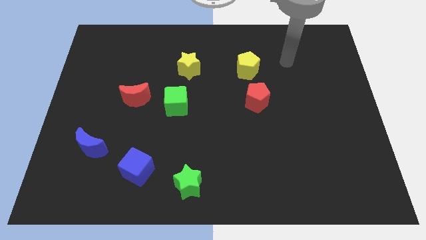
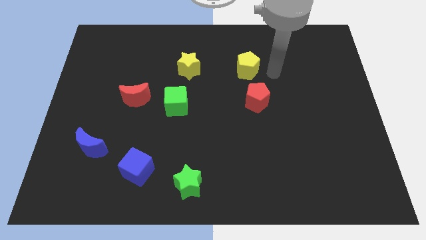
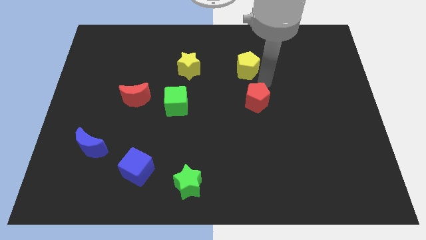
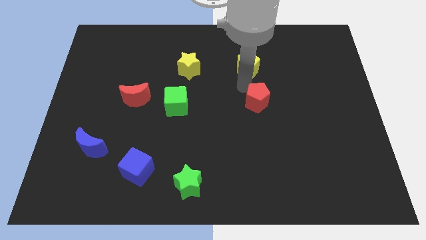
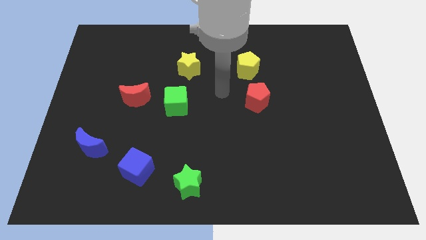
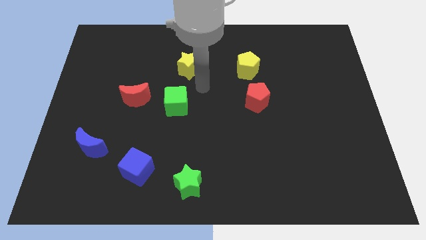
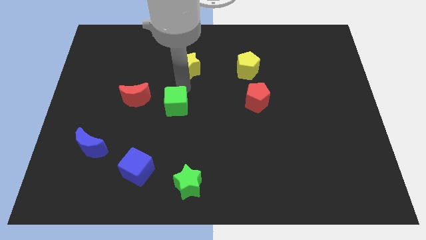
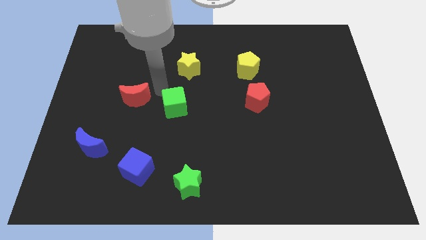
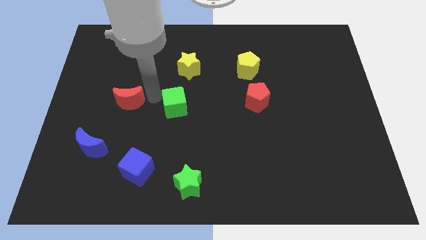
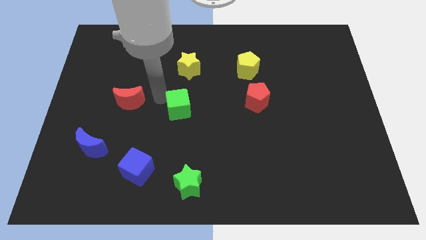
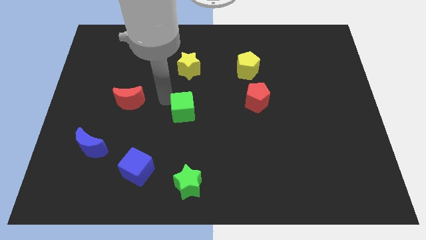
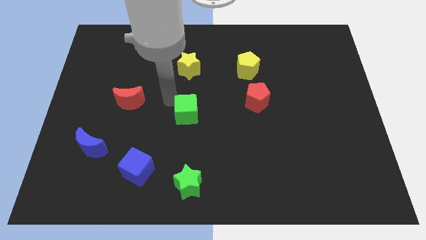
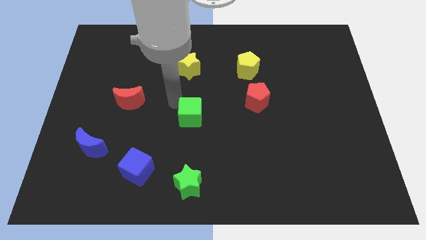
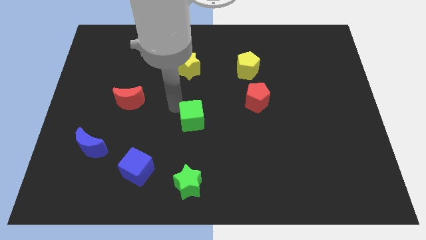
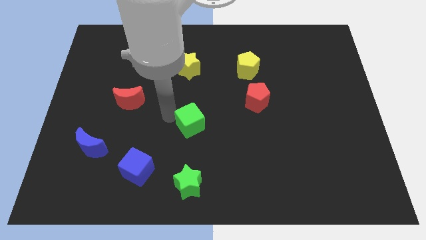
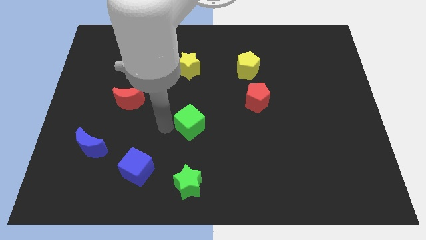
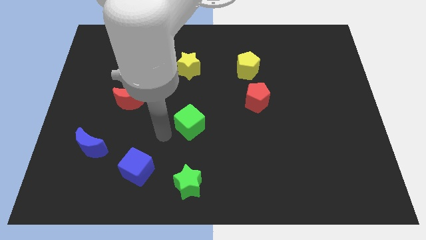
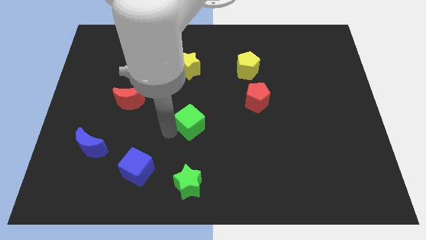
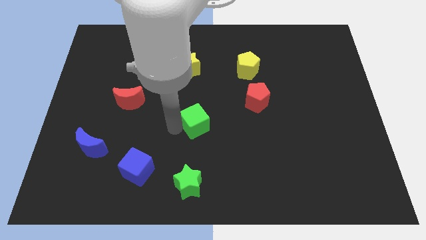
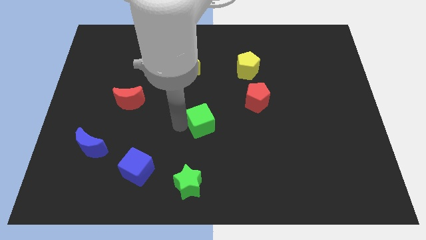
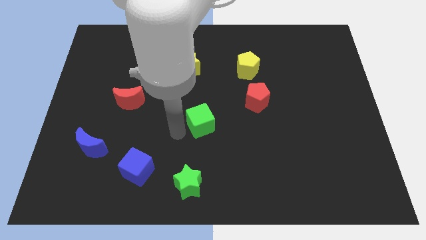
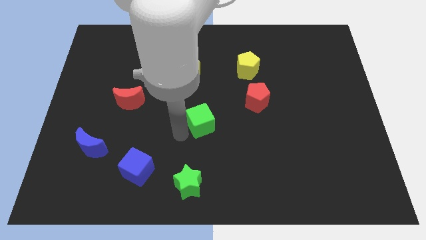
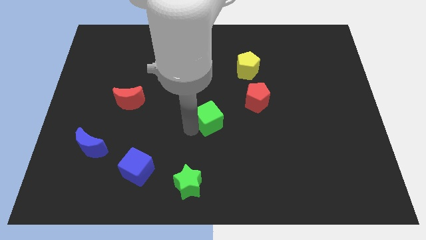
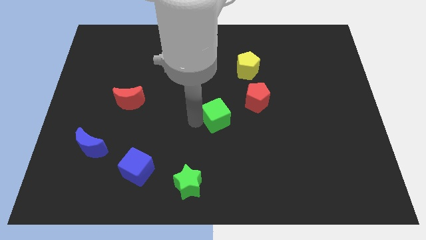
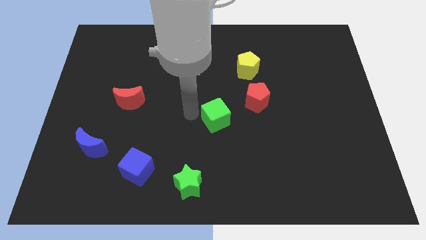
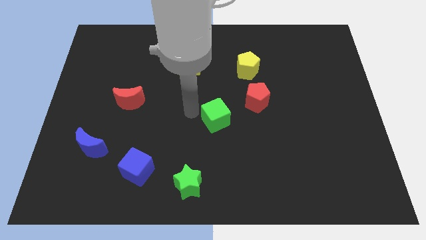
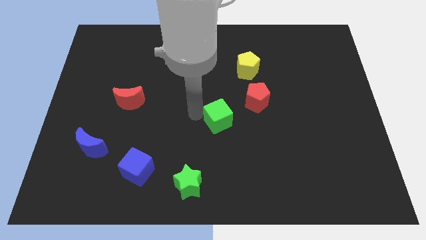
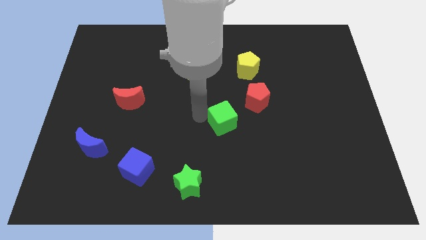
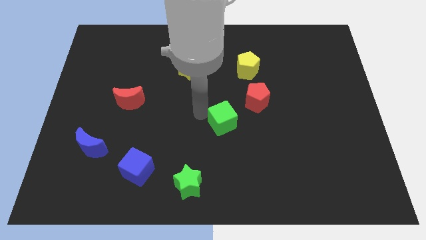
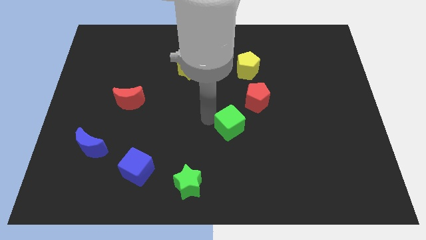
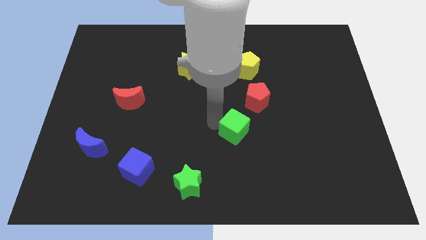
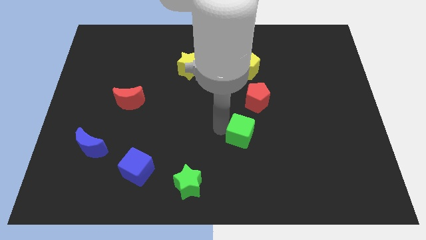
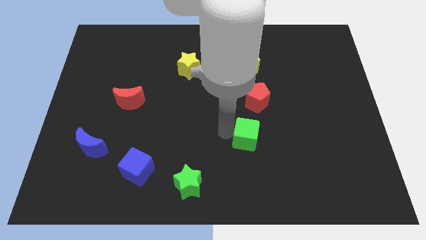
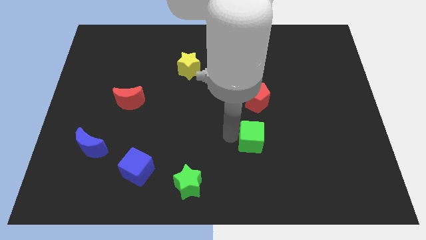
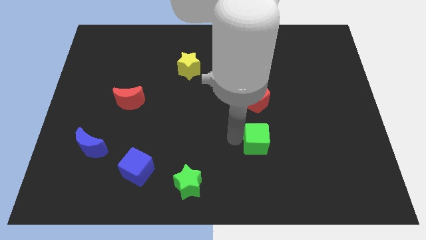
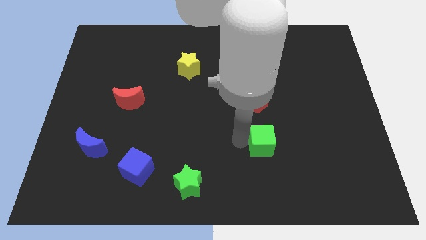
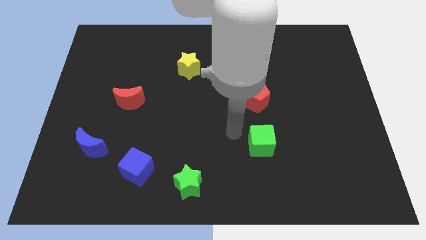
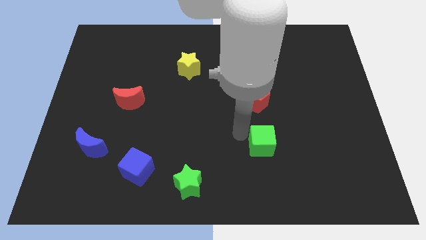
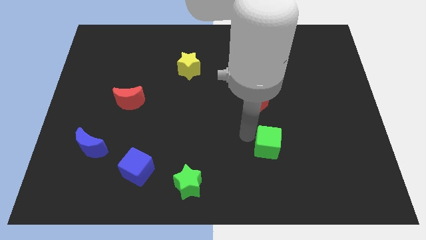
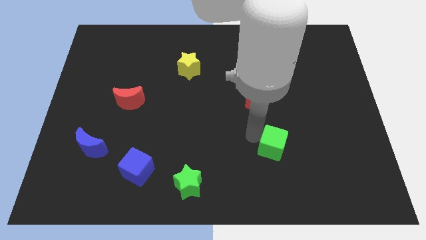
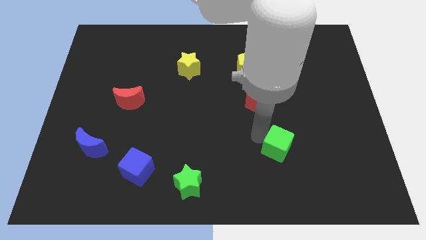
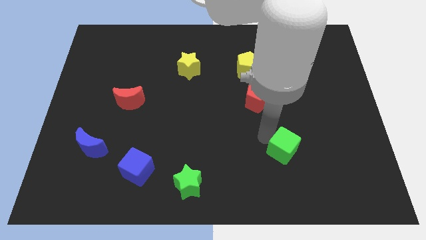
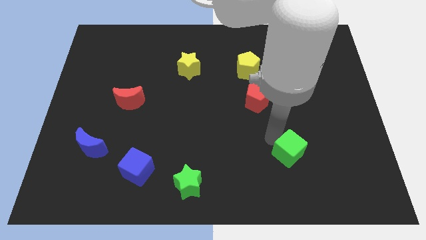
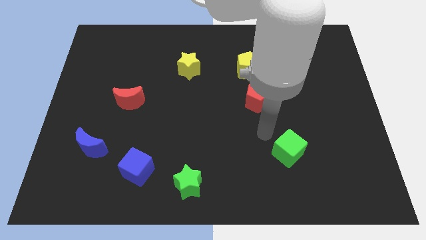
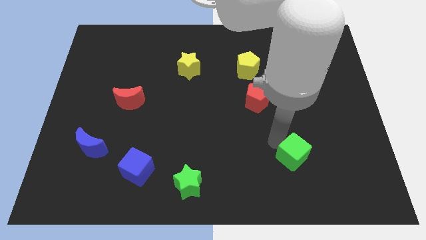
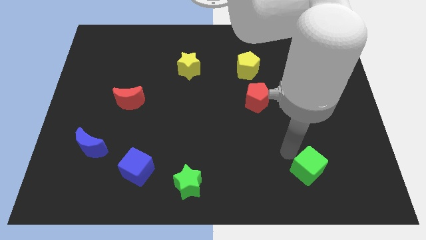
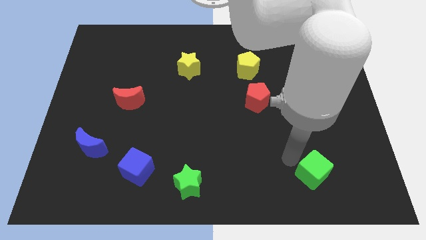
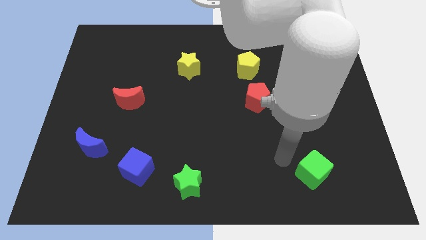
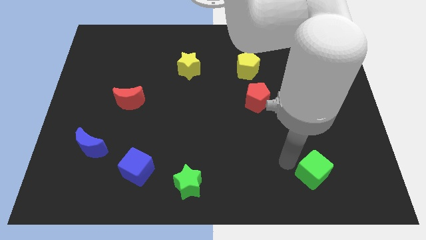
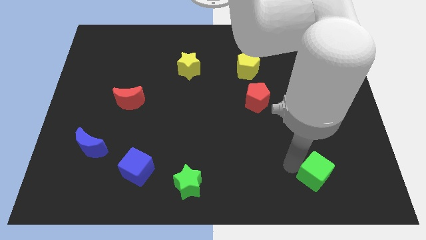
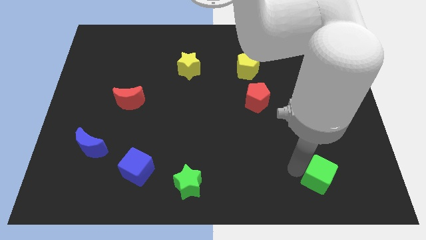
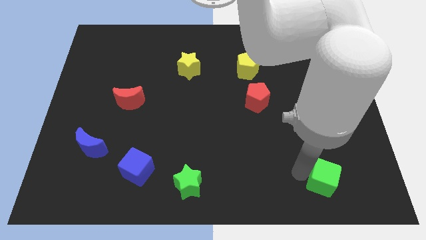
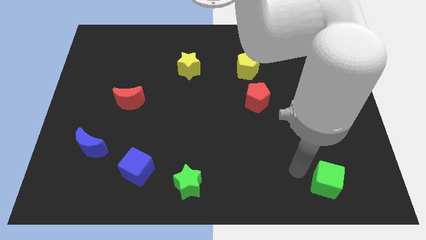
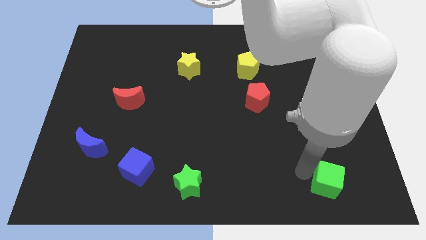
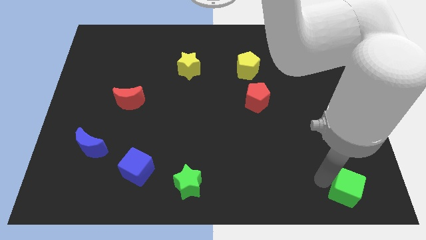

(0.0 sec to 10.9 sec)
slide the green cube to the bottom right of the board

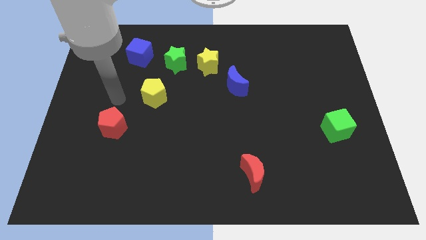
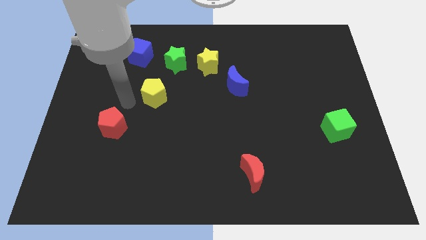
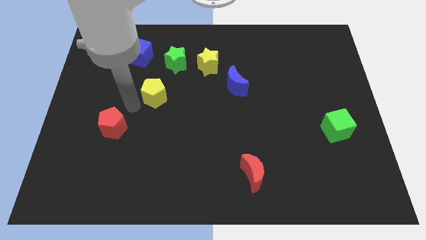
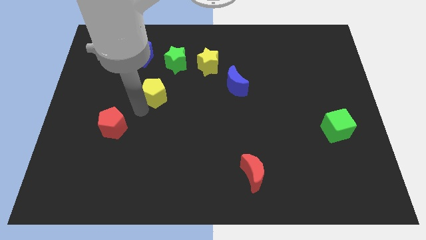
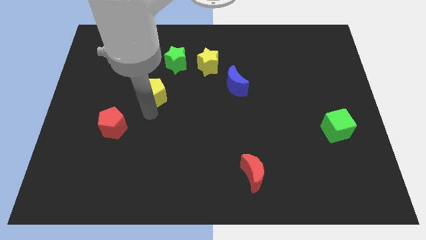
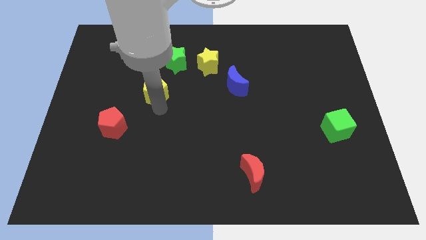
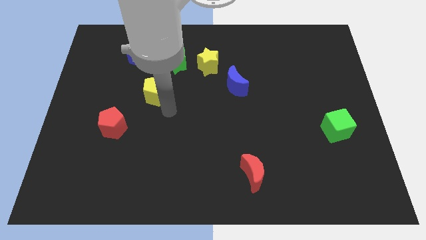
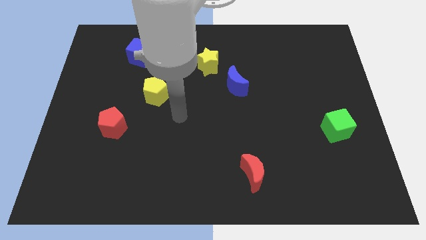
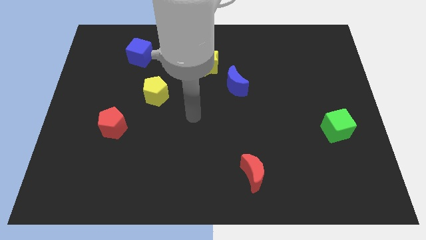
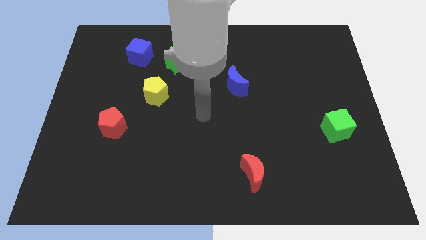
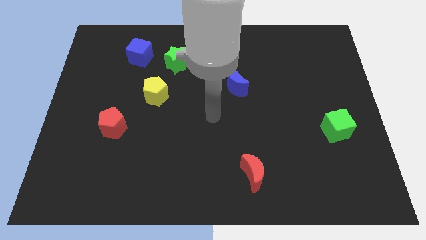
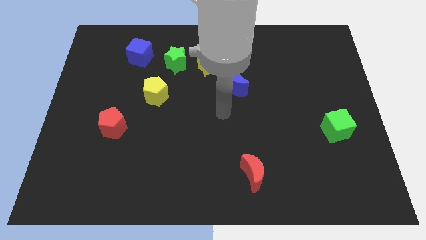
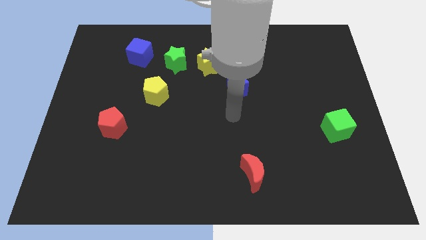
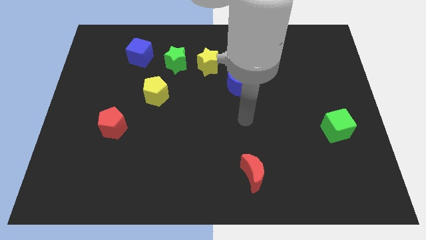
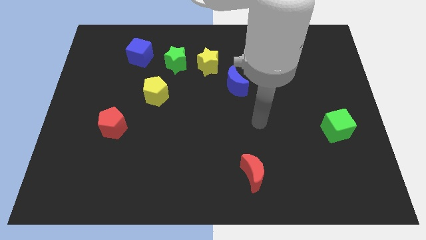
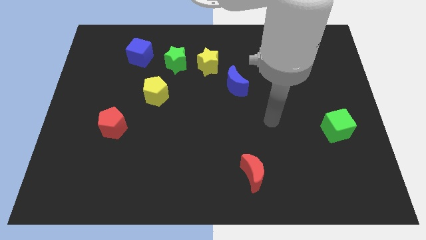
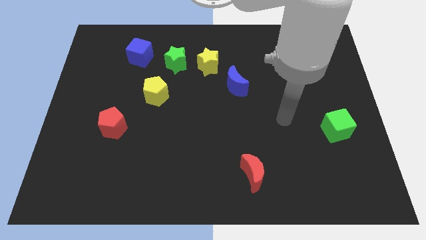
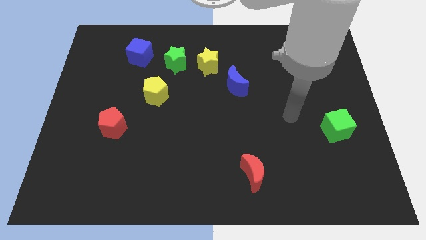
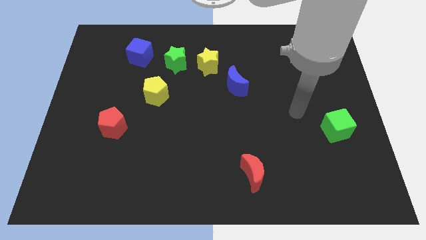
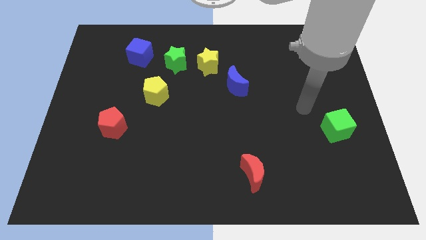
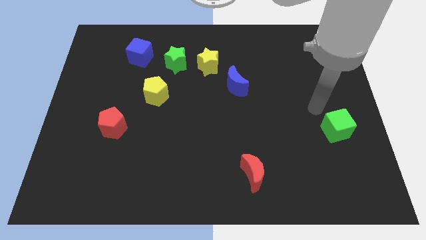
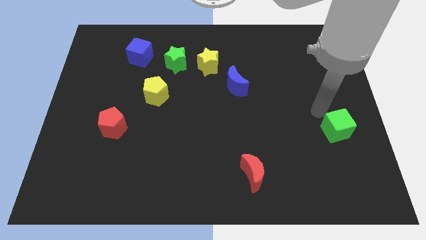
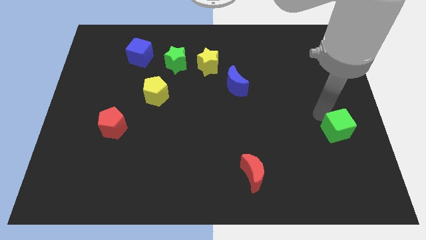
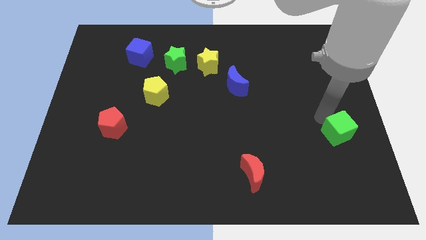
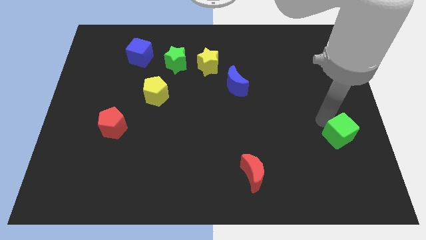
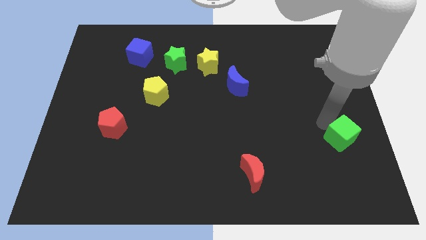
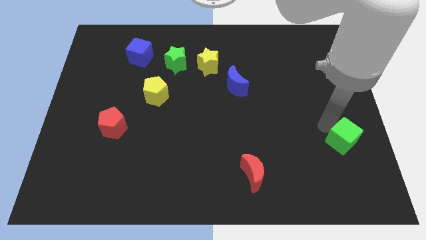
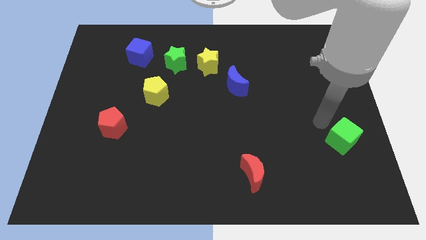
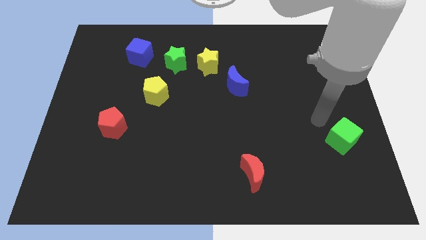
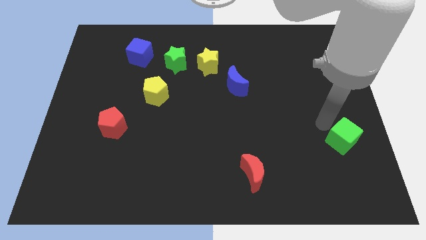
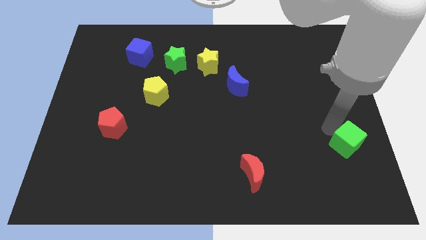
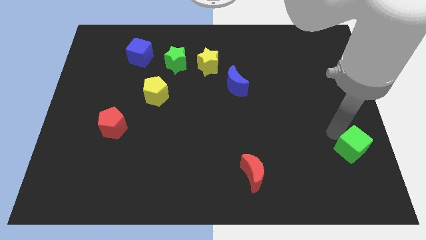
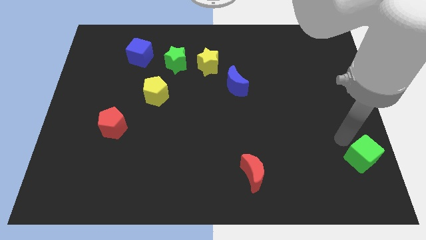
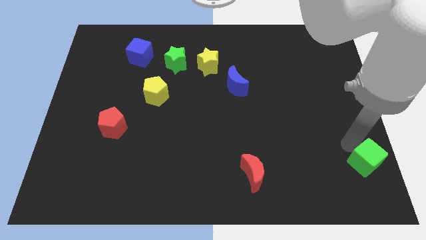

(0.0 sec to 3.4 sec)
slide the green cube to the lower right corner
